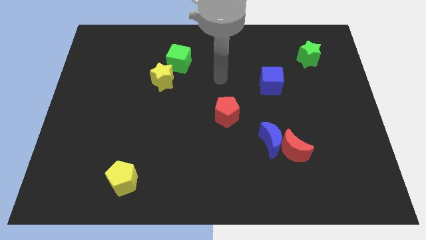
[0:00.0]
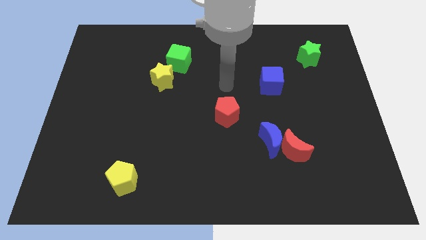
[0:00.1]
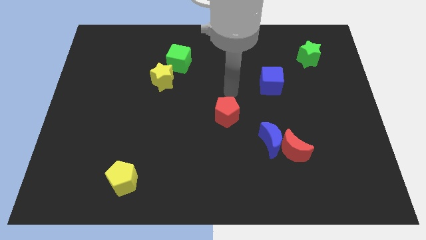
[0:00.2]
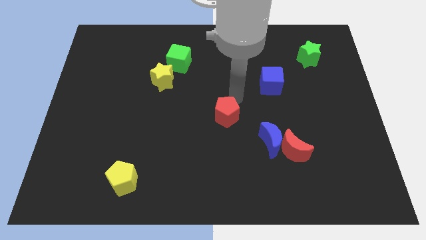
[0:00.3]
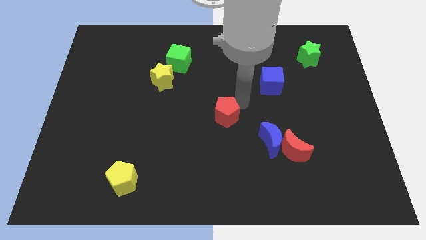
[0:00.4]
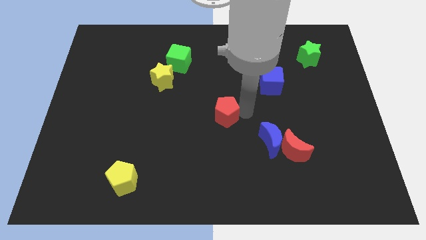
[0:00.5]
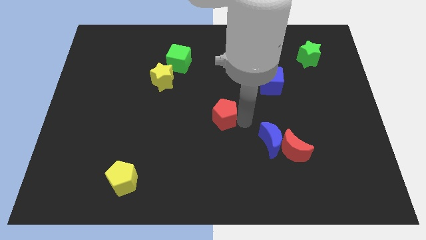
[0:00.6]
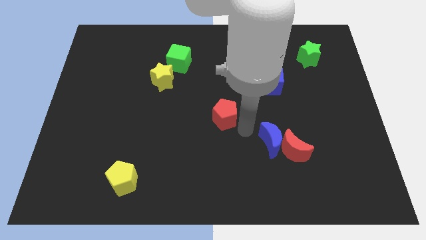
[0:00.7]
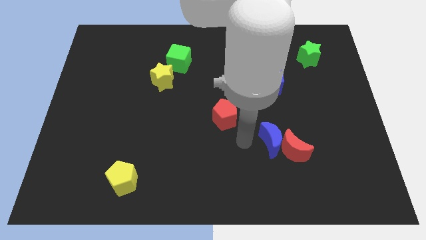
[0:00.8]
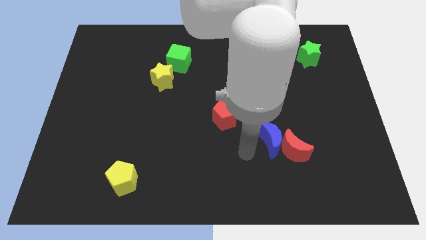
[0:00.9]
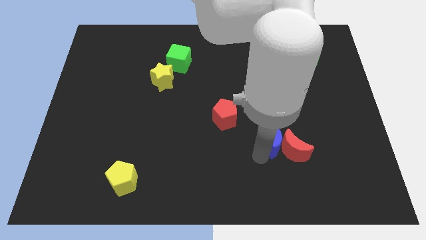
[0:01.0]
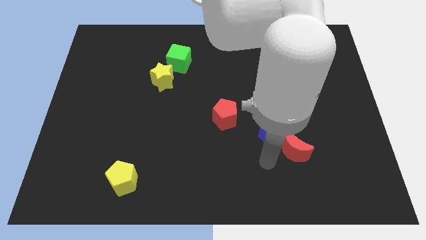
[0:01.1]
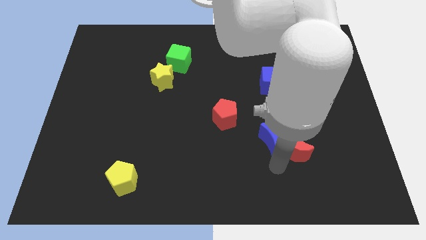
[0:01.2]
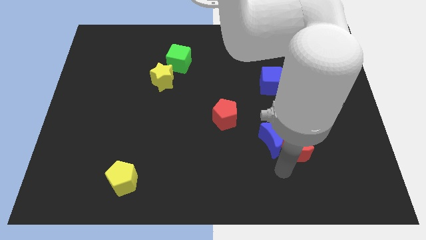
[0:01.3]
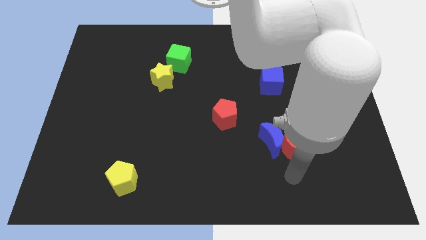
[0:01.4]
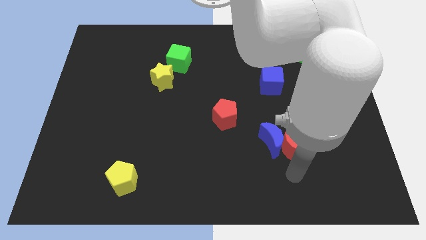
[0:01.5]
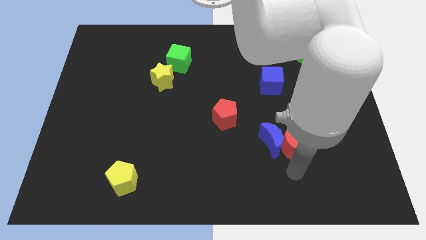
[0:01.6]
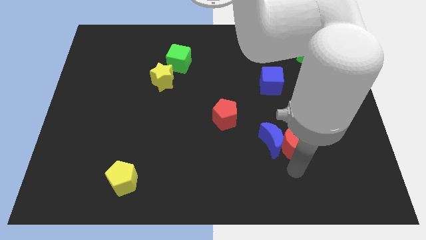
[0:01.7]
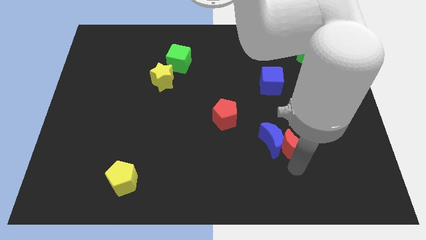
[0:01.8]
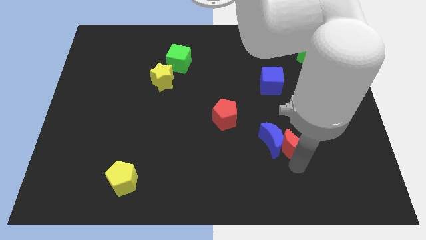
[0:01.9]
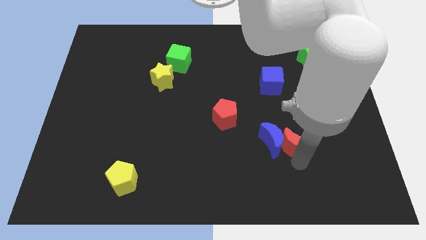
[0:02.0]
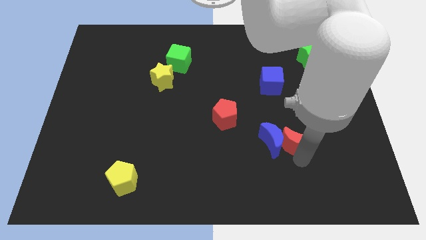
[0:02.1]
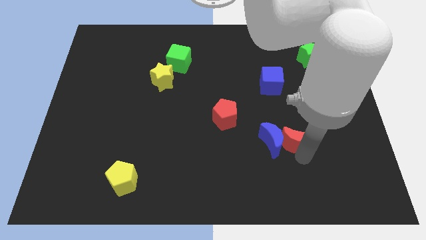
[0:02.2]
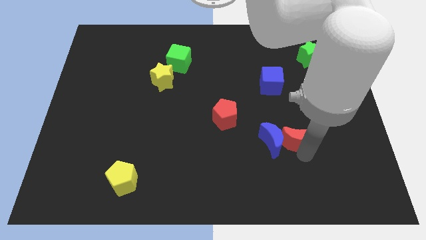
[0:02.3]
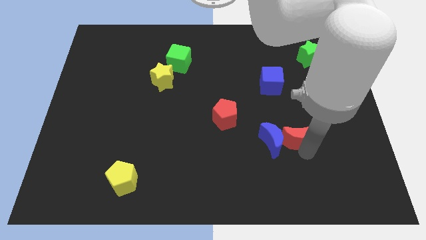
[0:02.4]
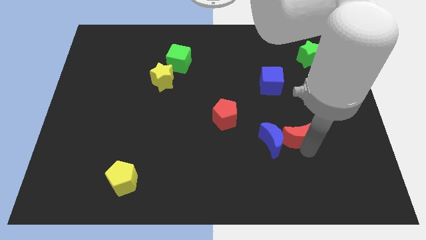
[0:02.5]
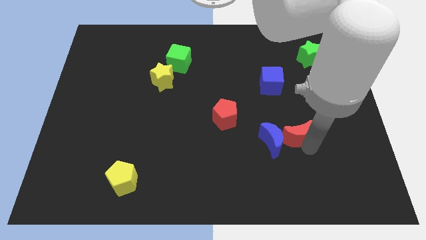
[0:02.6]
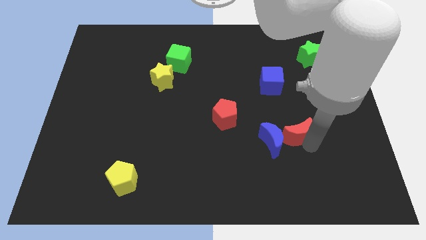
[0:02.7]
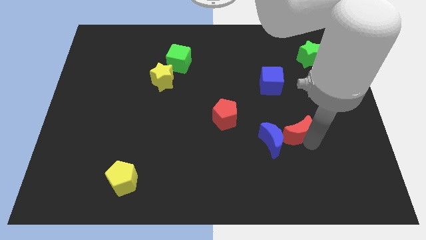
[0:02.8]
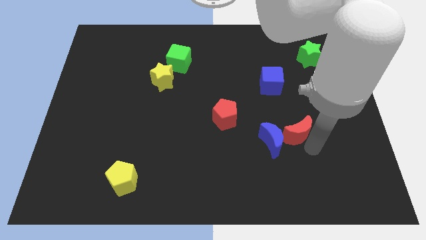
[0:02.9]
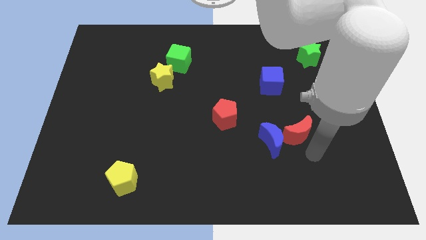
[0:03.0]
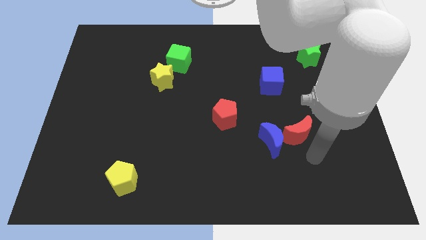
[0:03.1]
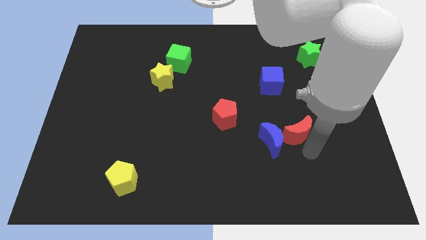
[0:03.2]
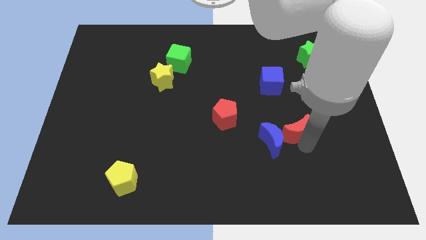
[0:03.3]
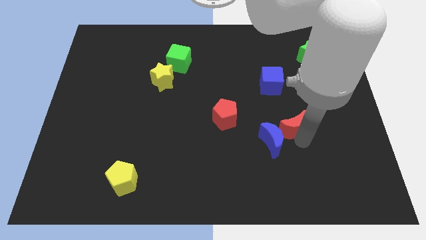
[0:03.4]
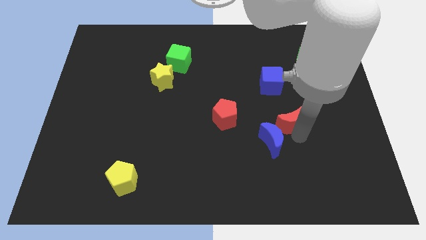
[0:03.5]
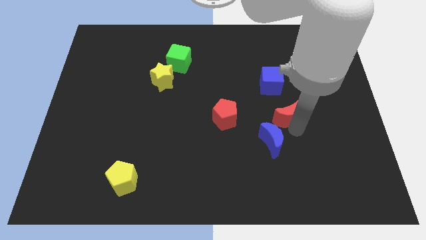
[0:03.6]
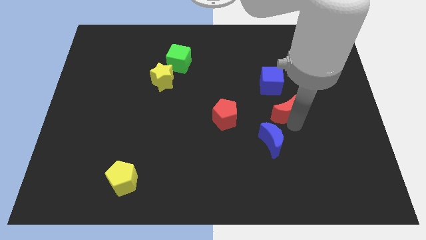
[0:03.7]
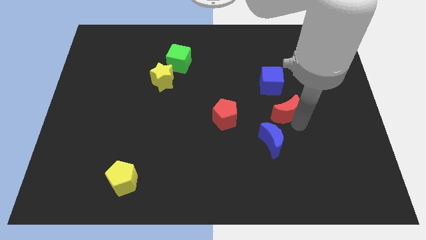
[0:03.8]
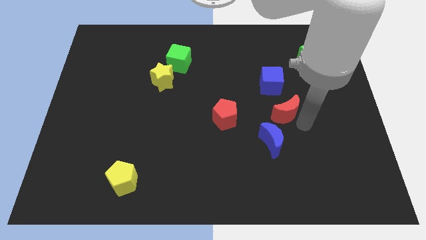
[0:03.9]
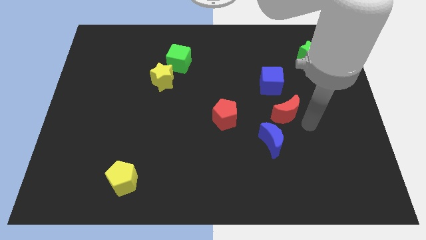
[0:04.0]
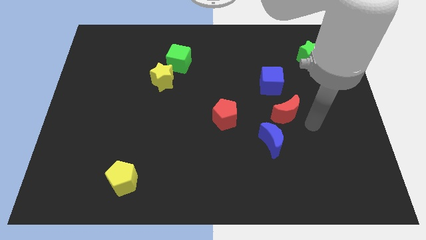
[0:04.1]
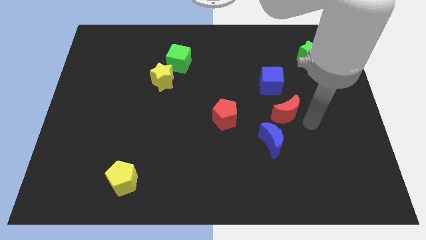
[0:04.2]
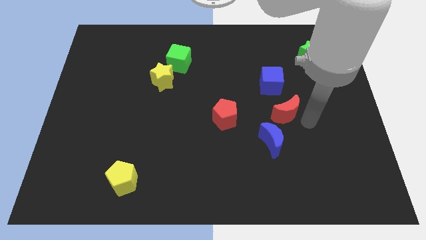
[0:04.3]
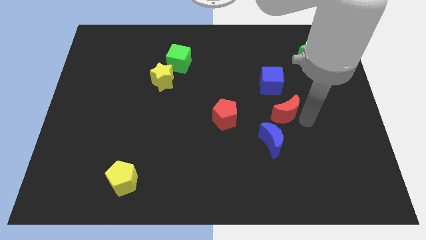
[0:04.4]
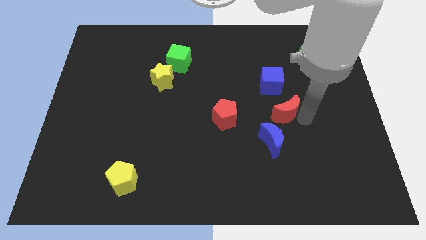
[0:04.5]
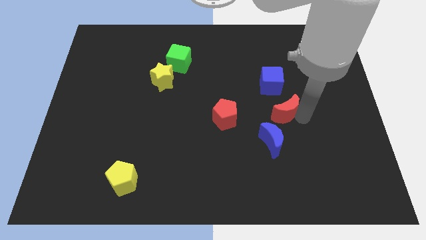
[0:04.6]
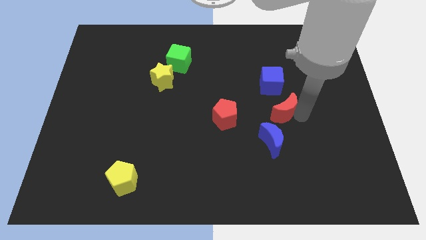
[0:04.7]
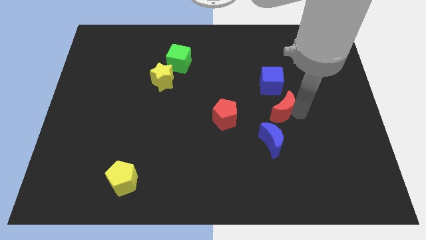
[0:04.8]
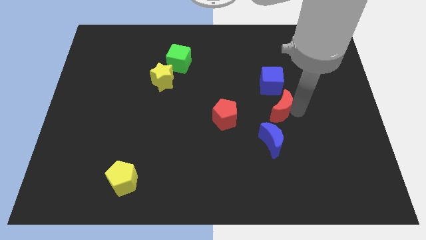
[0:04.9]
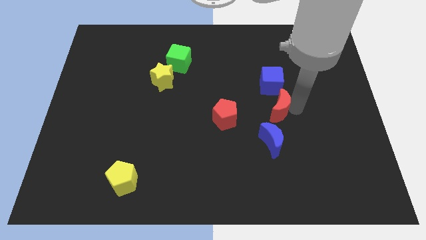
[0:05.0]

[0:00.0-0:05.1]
slide the red moon diagonally upwards and to the left a bit

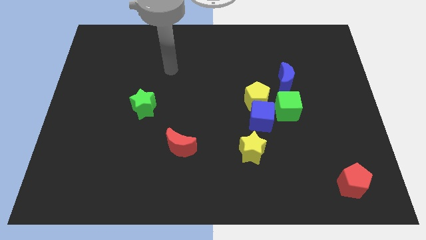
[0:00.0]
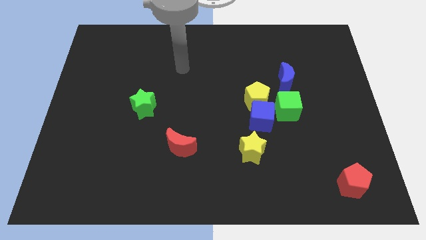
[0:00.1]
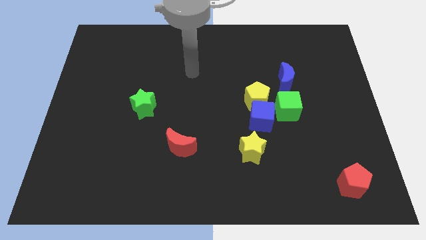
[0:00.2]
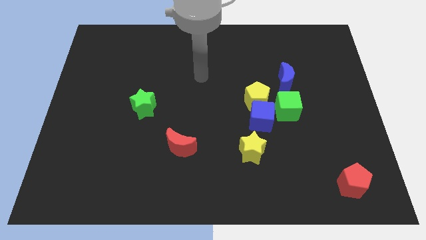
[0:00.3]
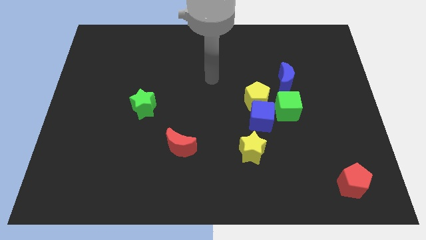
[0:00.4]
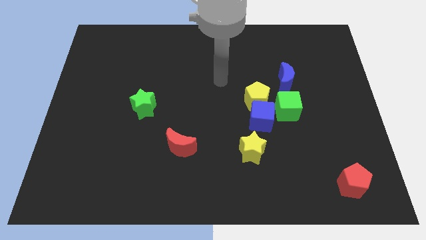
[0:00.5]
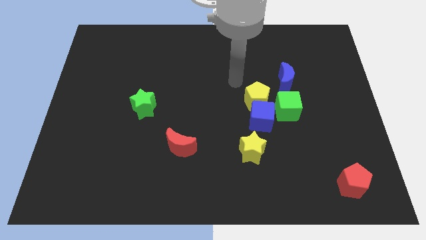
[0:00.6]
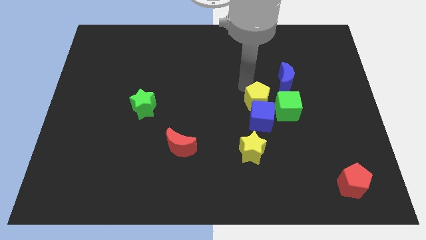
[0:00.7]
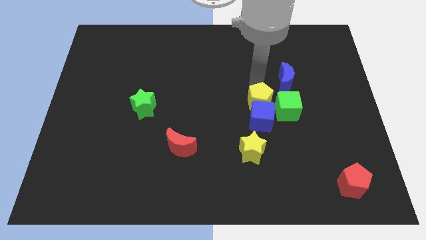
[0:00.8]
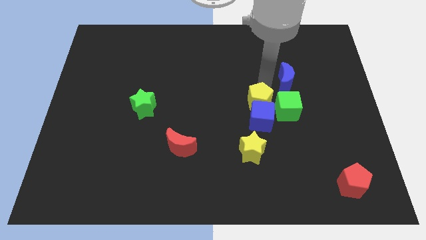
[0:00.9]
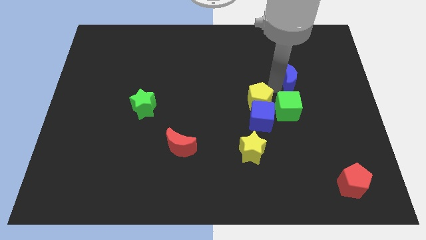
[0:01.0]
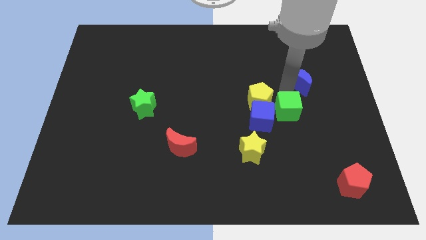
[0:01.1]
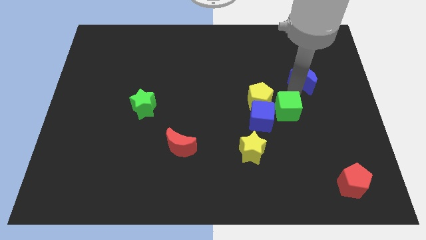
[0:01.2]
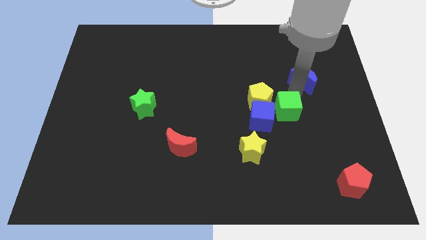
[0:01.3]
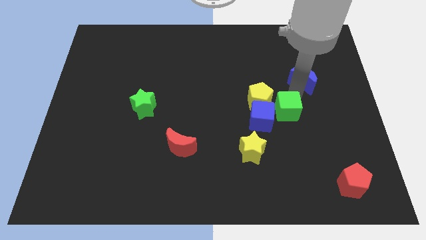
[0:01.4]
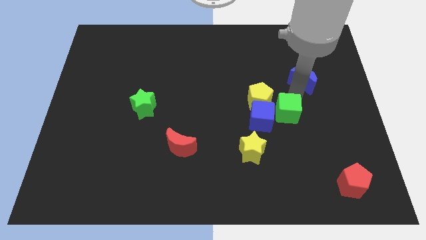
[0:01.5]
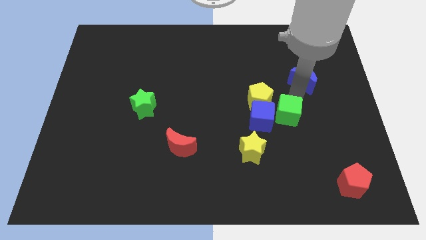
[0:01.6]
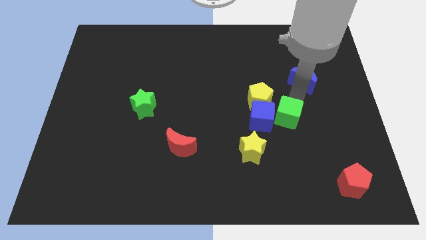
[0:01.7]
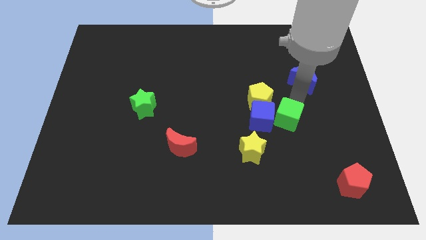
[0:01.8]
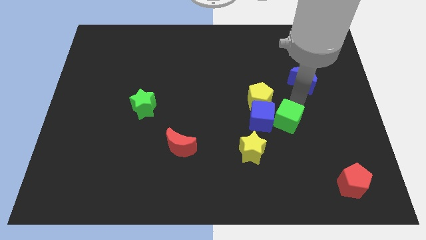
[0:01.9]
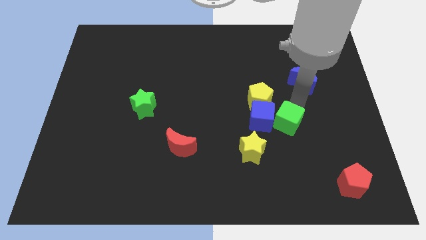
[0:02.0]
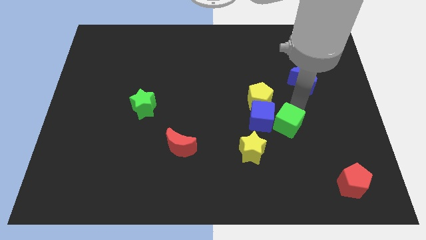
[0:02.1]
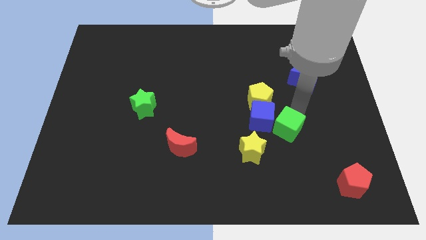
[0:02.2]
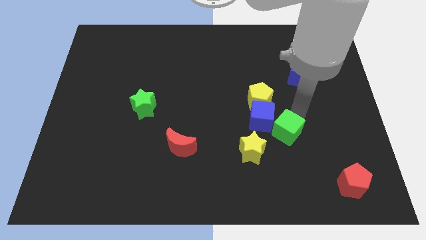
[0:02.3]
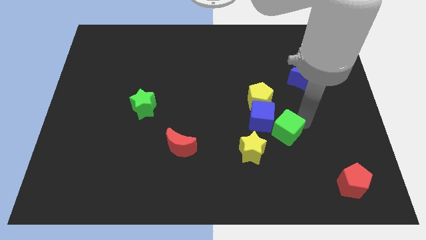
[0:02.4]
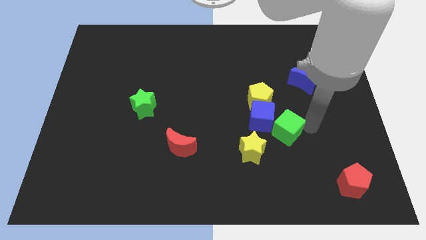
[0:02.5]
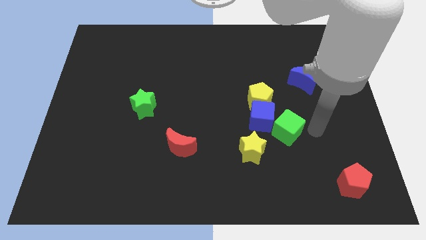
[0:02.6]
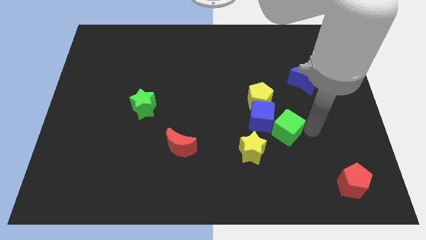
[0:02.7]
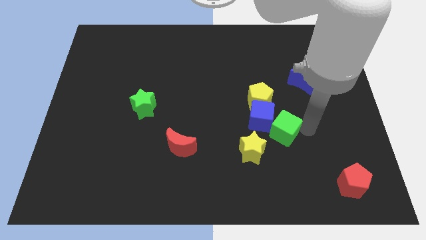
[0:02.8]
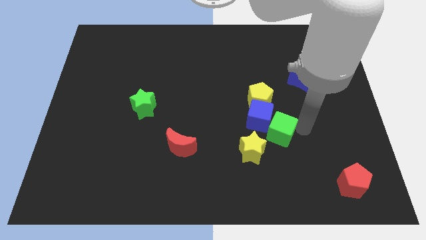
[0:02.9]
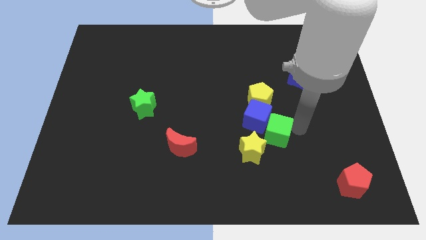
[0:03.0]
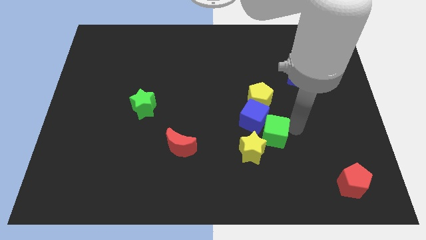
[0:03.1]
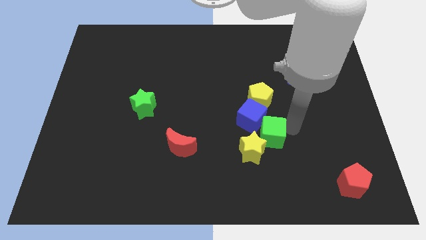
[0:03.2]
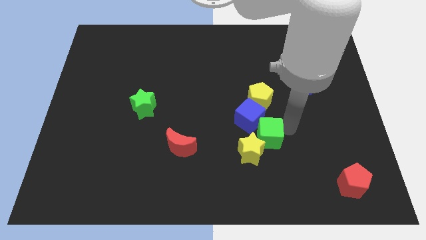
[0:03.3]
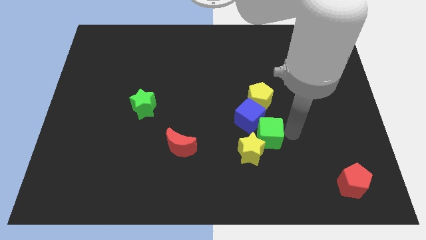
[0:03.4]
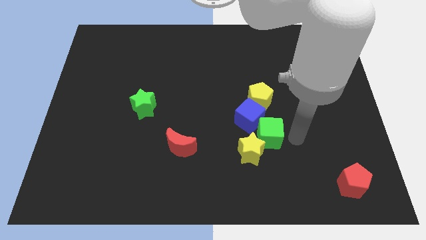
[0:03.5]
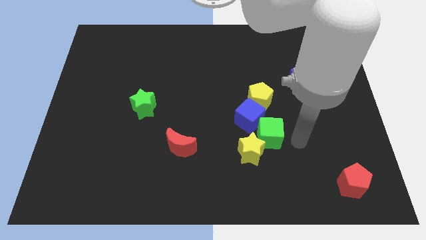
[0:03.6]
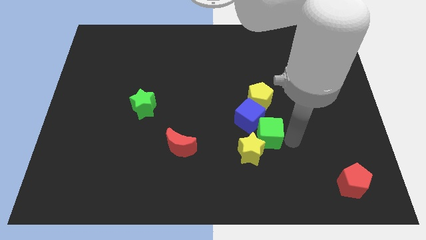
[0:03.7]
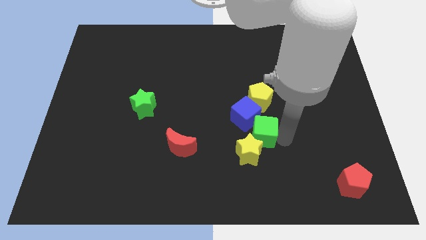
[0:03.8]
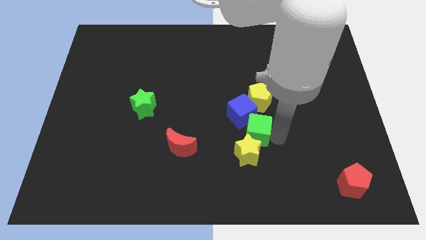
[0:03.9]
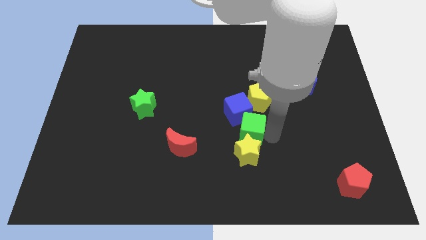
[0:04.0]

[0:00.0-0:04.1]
slide the green cube left a little
